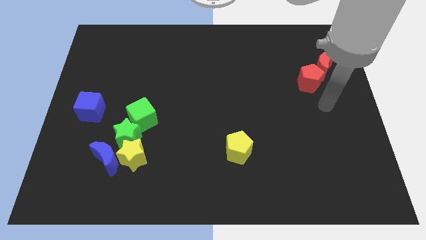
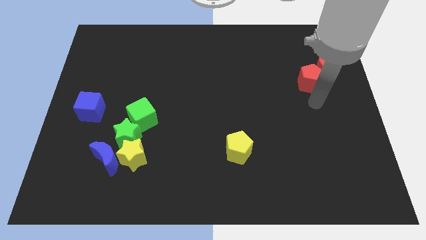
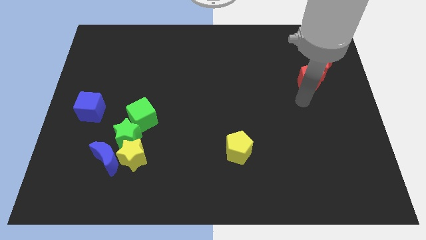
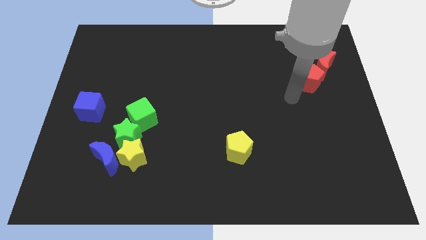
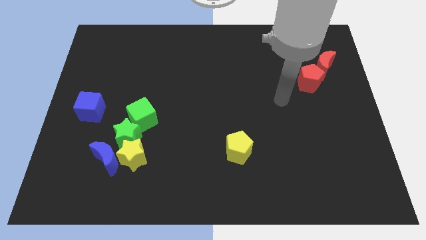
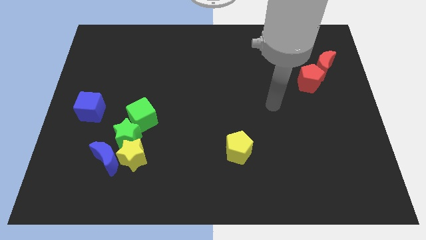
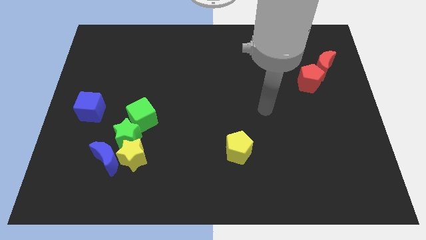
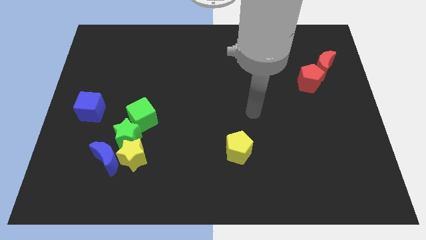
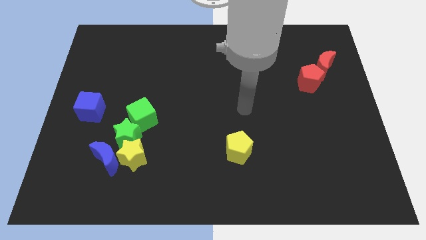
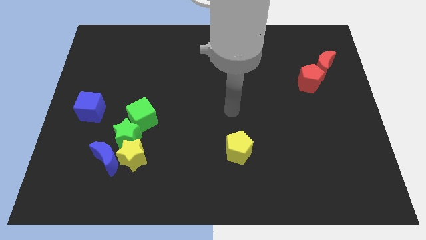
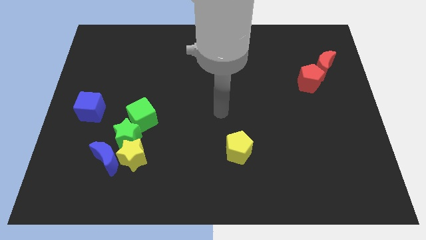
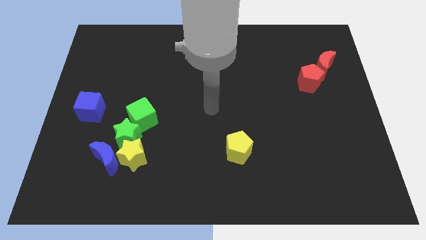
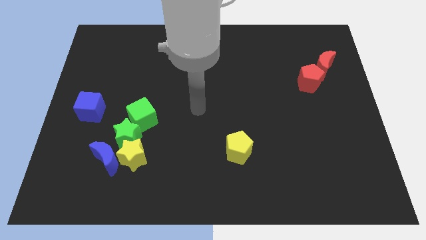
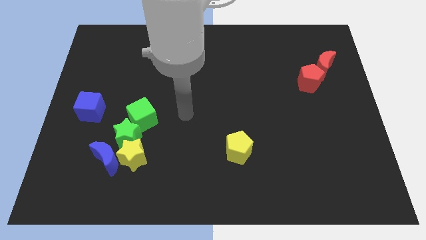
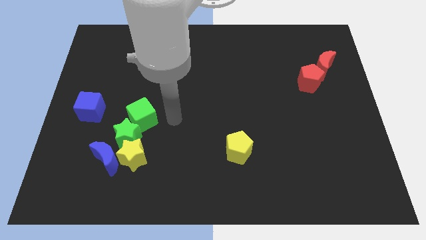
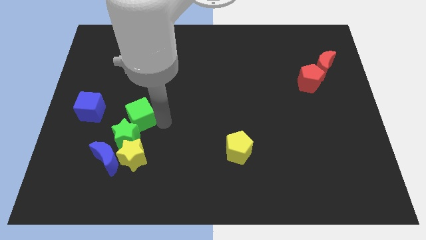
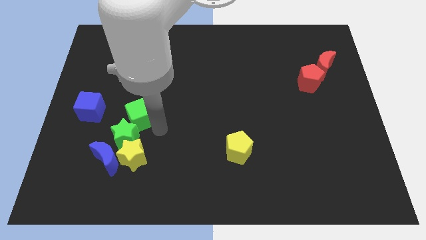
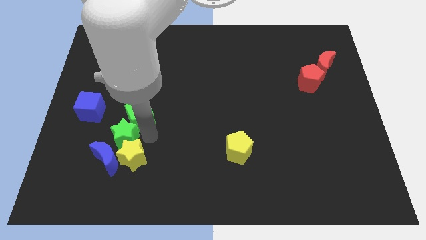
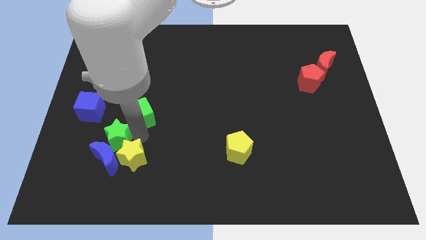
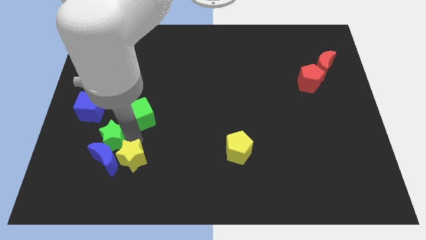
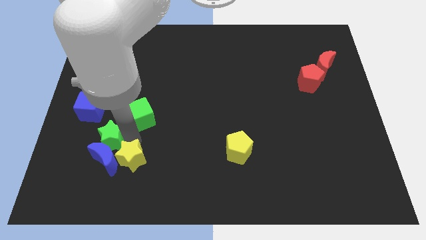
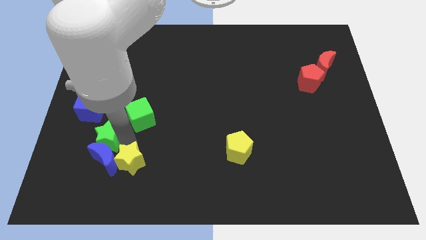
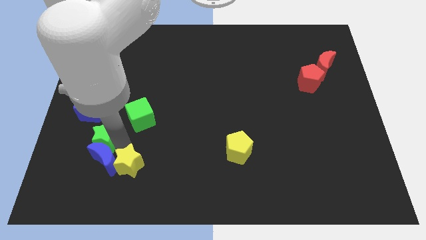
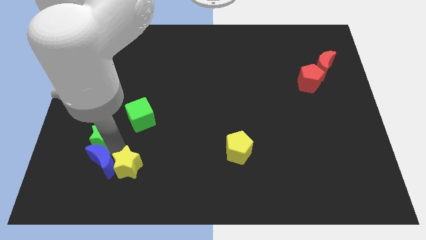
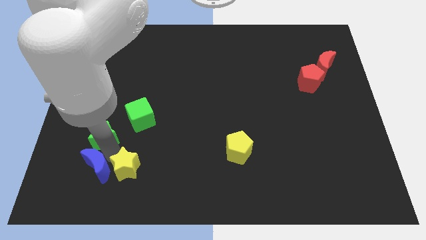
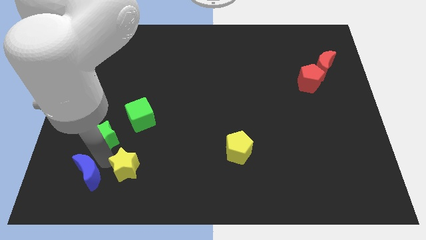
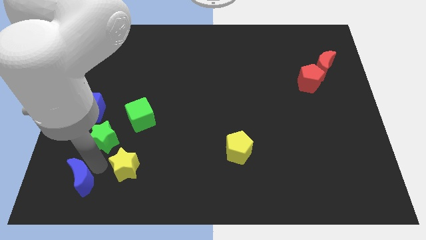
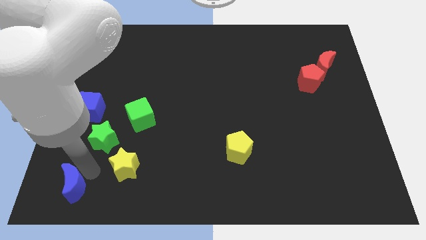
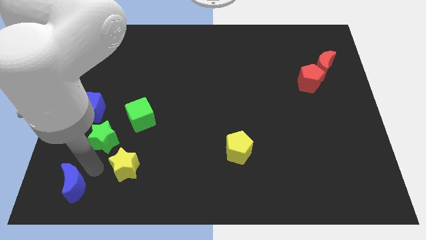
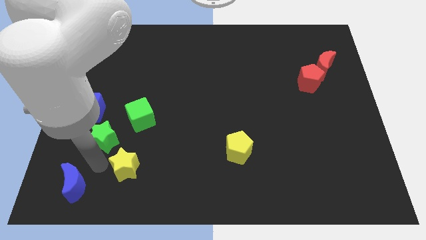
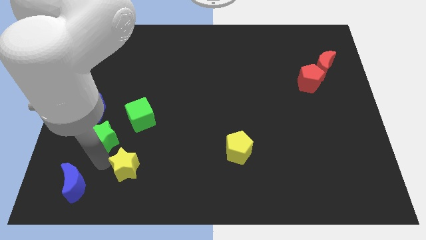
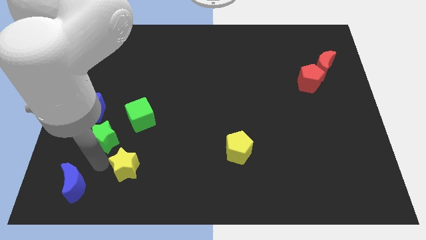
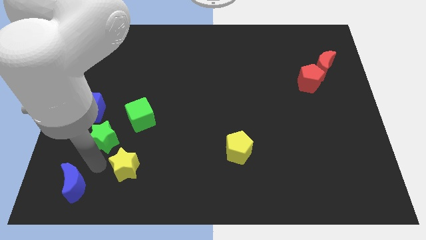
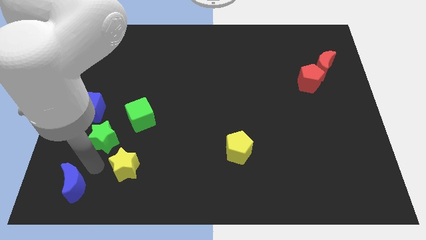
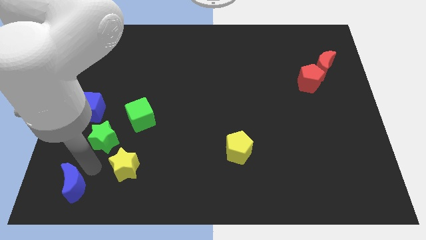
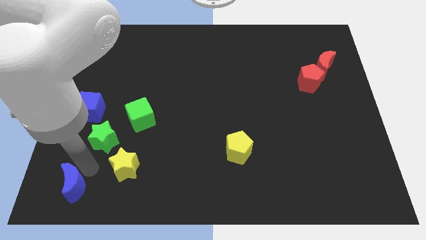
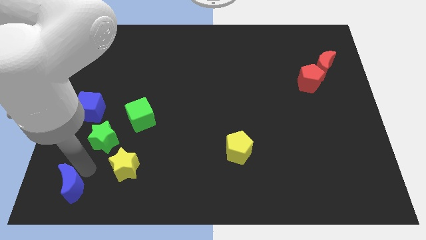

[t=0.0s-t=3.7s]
separate the blue moon from the yellow star and green star

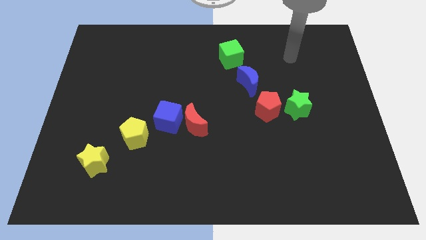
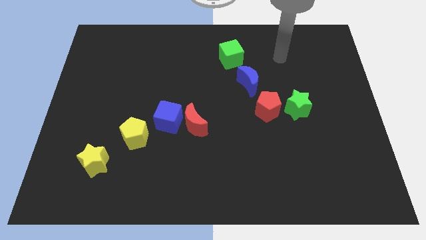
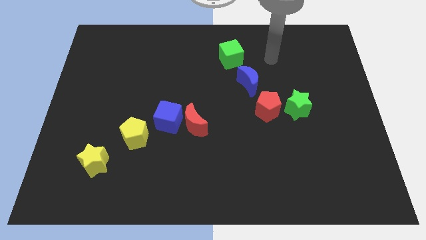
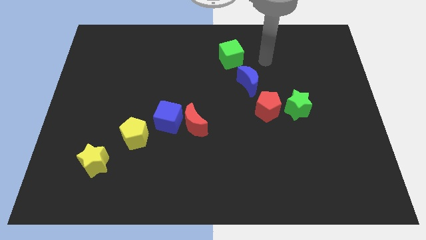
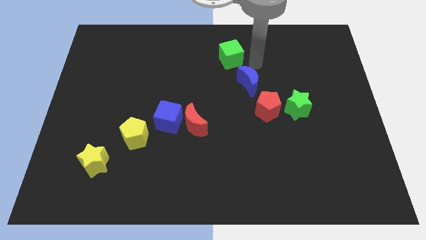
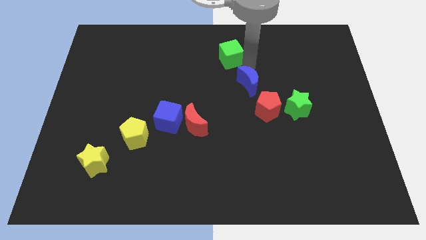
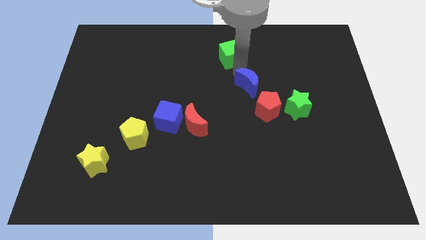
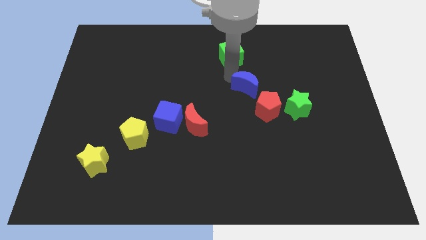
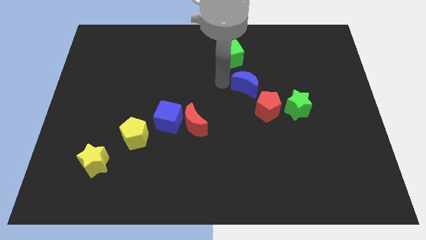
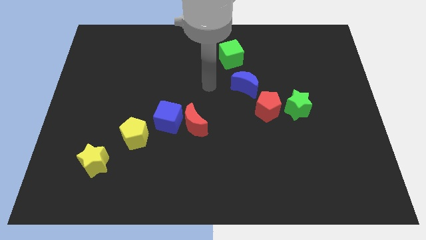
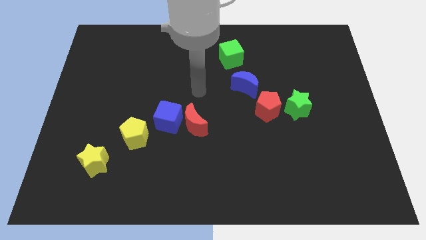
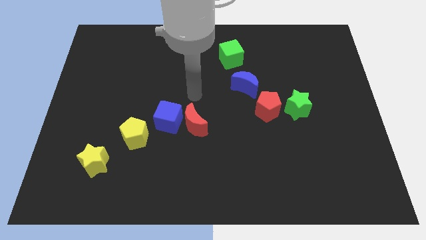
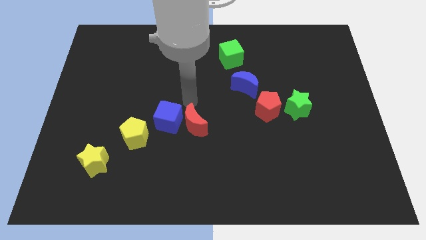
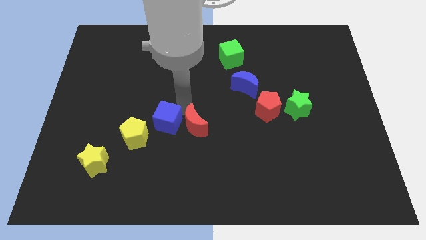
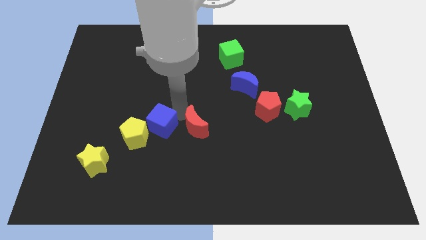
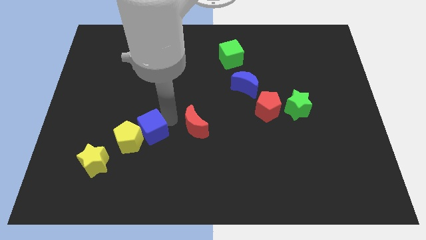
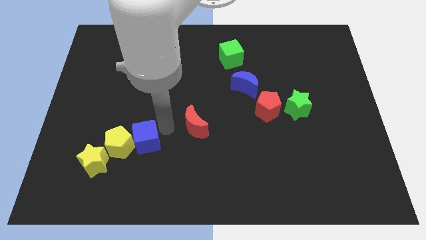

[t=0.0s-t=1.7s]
pull the red moon apart from the blue cube

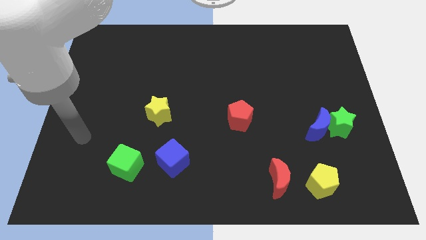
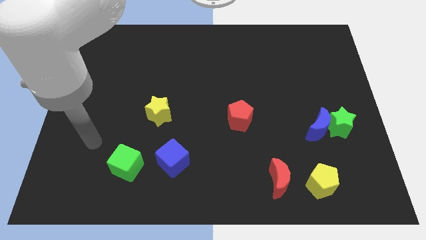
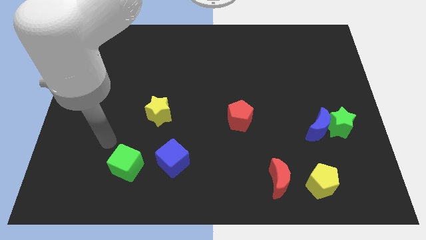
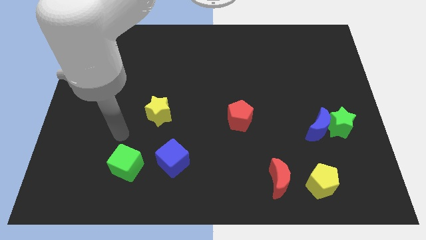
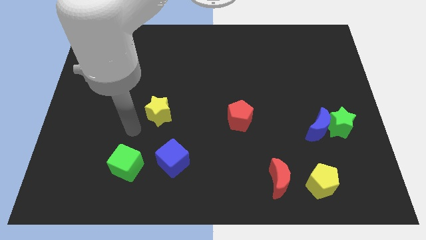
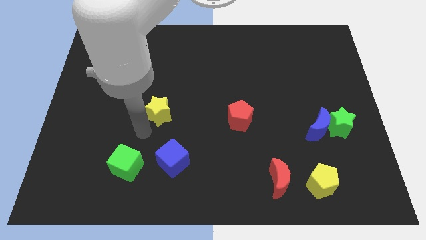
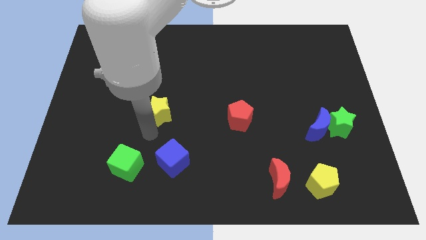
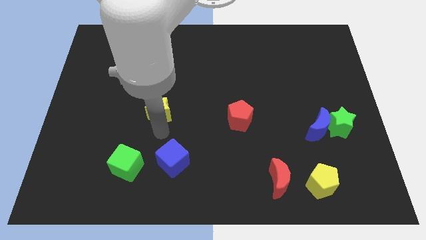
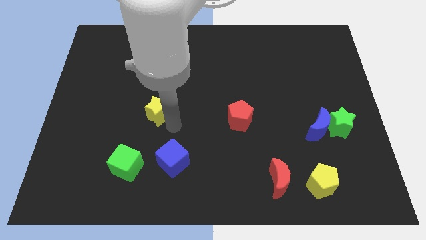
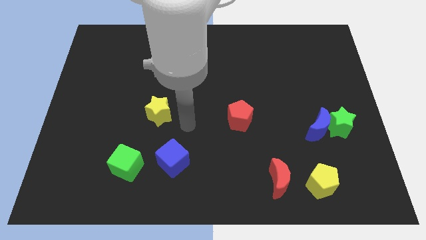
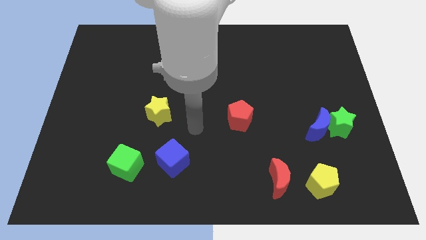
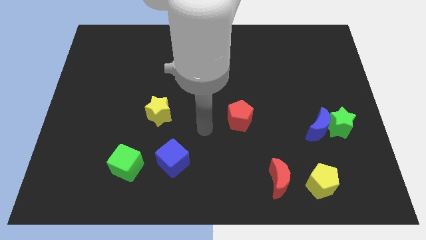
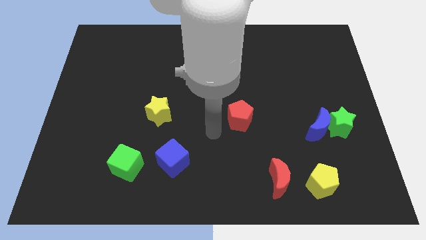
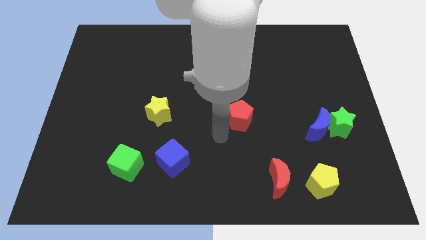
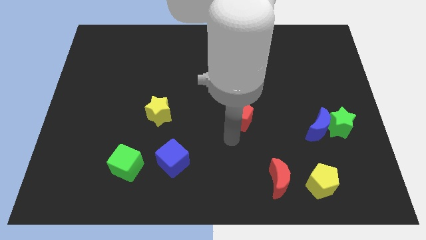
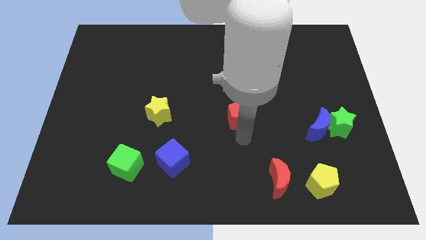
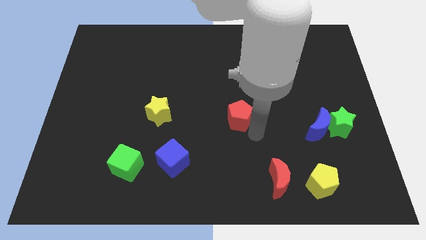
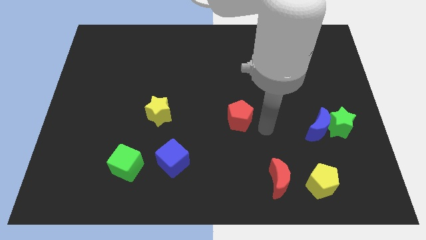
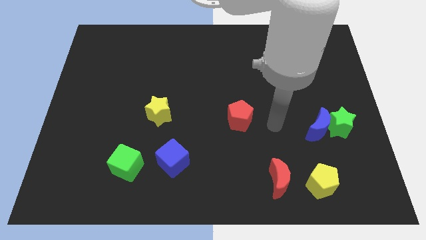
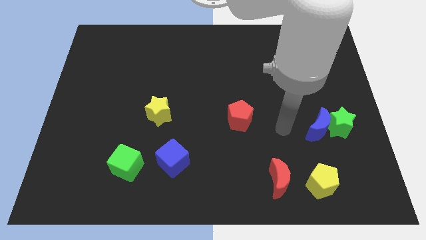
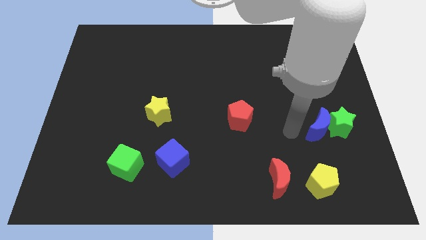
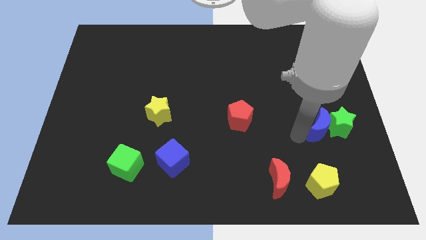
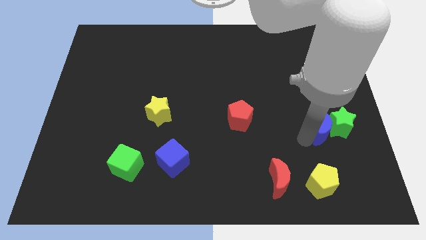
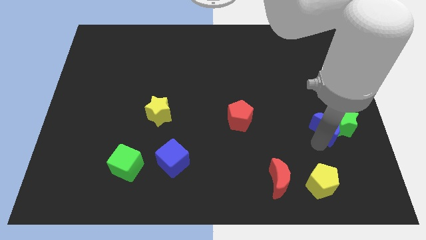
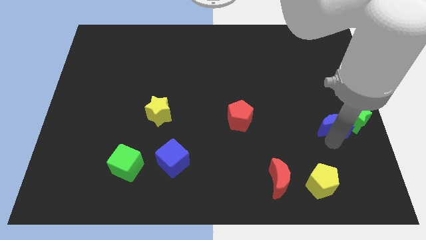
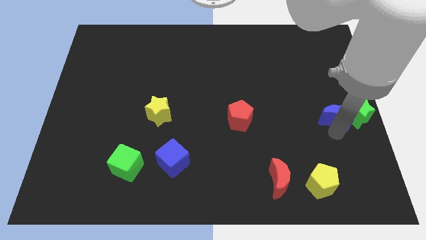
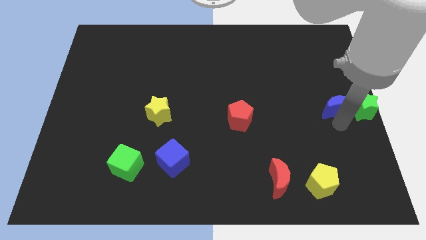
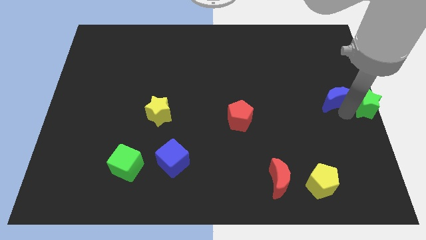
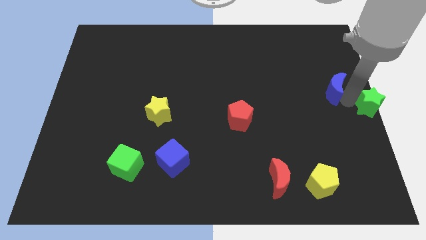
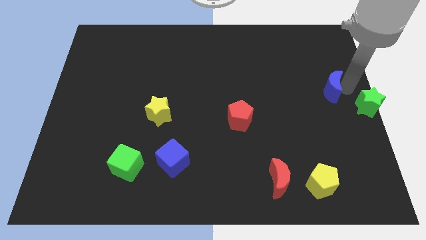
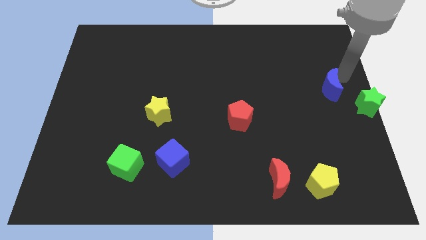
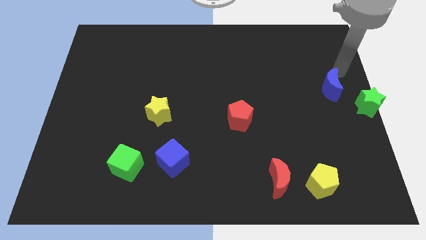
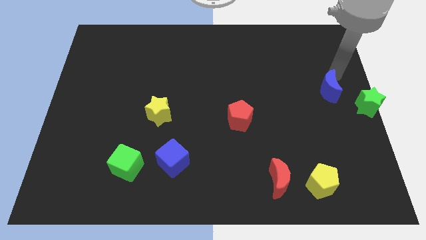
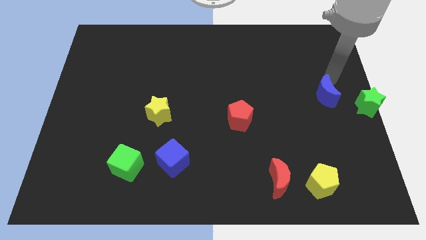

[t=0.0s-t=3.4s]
move the blue moon away from the green star

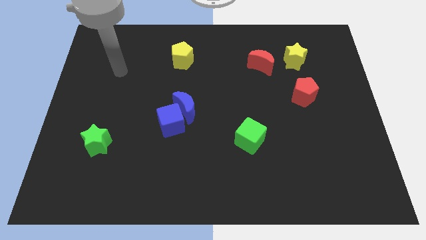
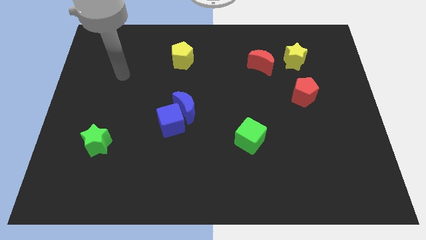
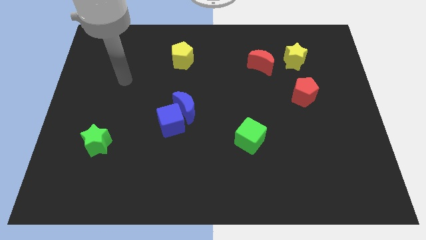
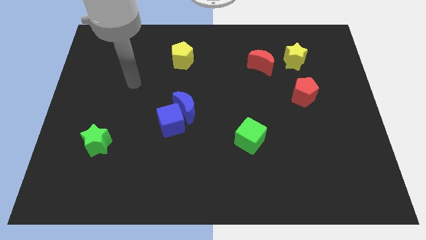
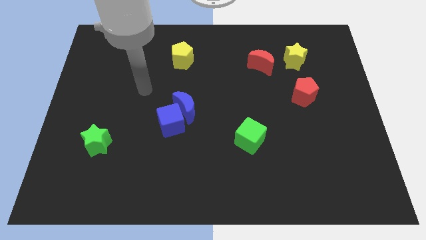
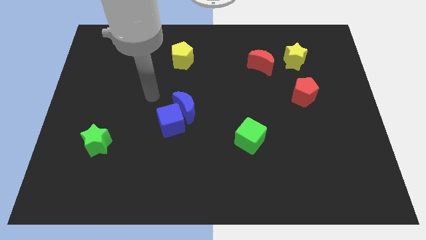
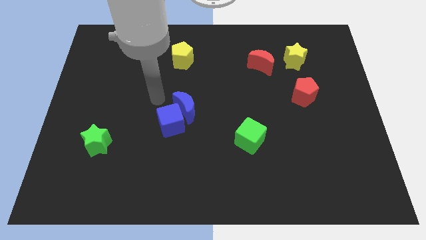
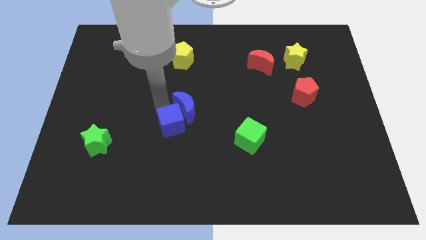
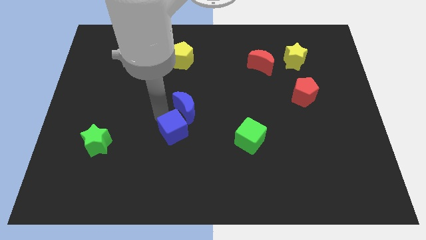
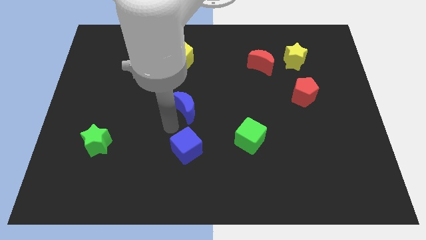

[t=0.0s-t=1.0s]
separate the blue moon from the blue cube
